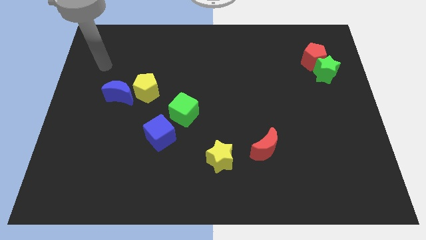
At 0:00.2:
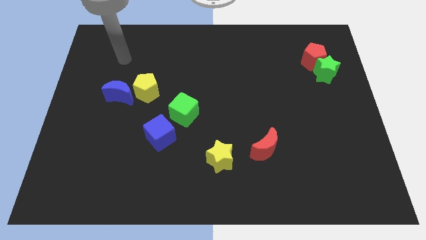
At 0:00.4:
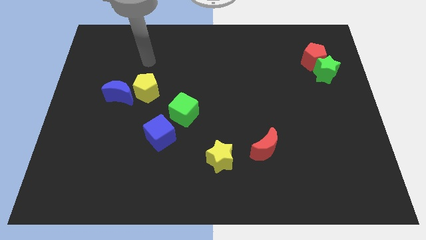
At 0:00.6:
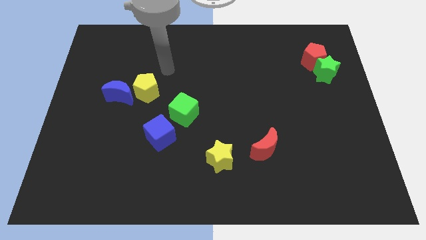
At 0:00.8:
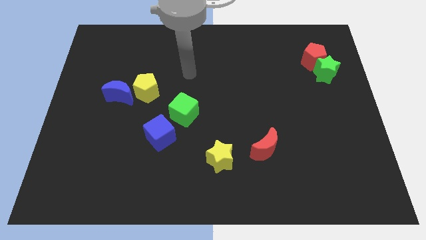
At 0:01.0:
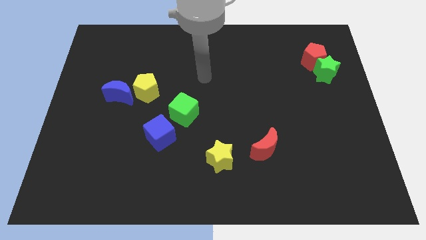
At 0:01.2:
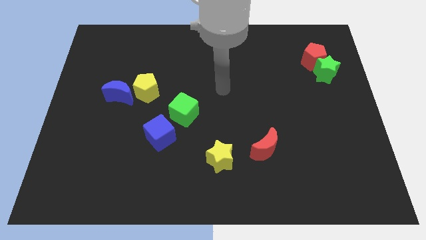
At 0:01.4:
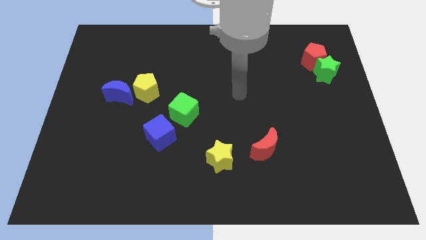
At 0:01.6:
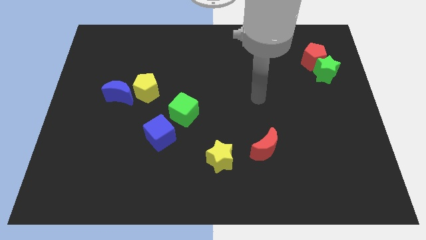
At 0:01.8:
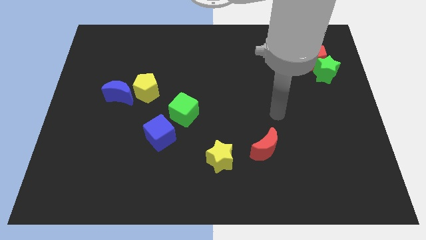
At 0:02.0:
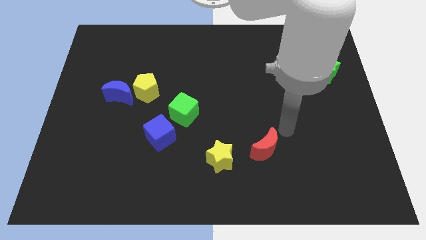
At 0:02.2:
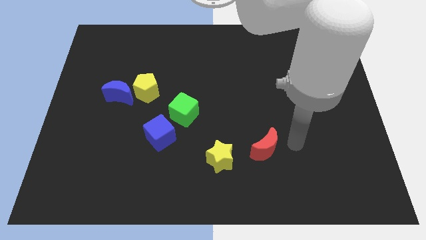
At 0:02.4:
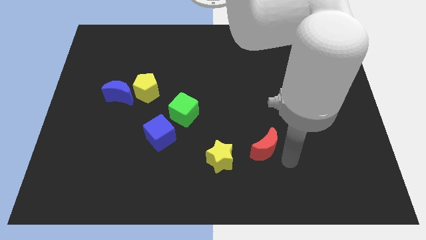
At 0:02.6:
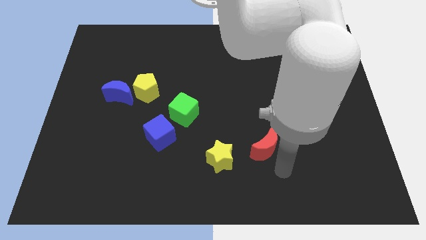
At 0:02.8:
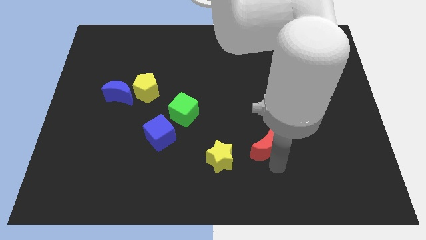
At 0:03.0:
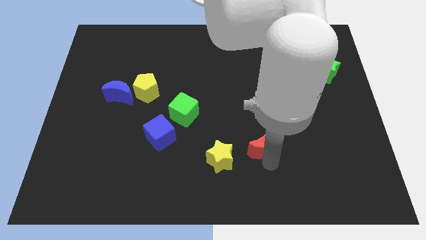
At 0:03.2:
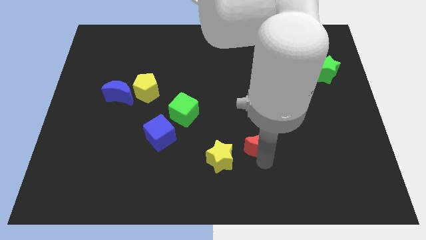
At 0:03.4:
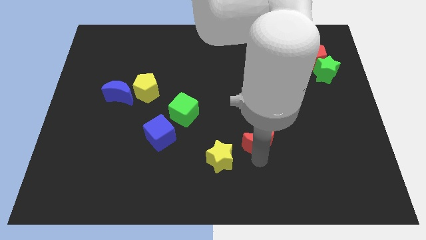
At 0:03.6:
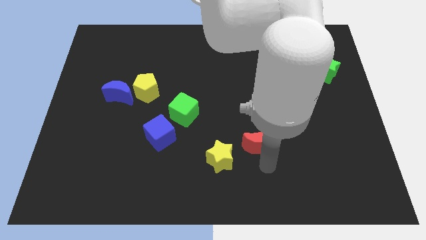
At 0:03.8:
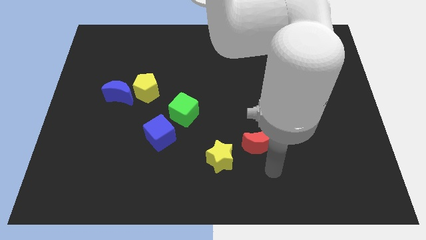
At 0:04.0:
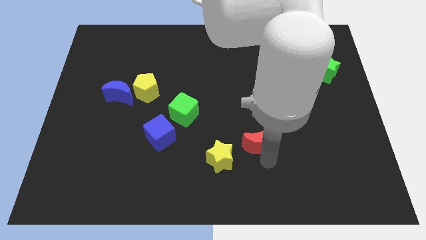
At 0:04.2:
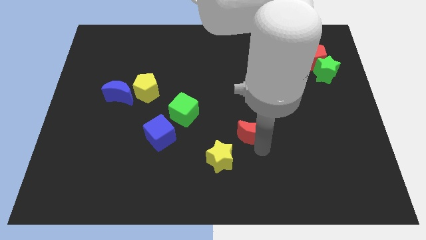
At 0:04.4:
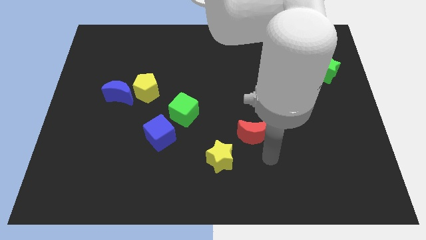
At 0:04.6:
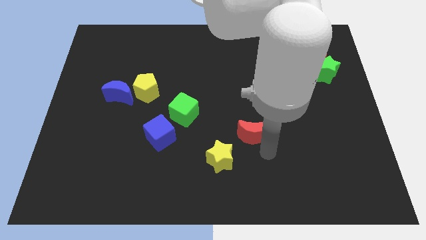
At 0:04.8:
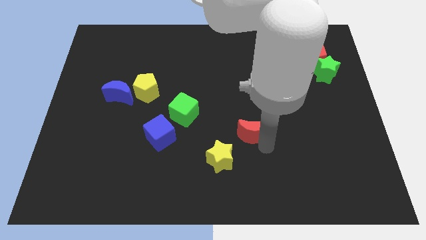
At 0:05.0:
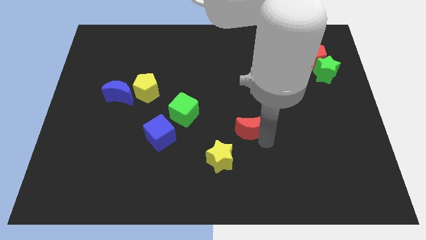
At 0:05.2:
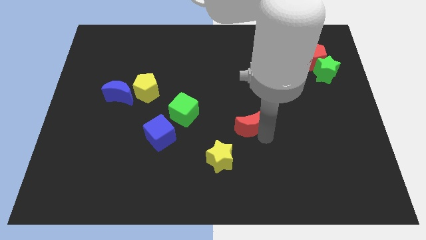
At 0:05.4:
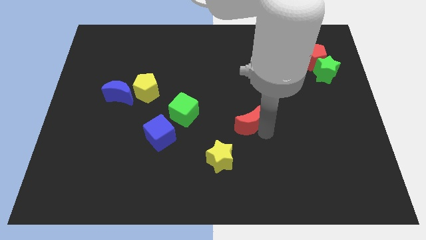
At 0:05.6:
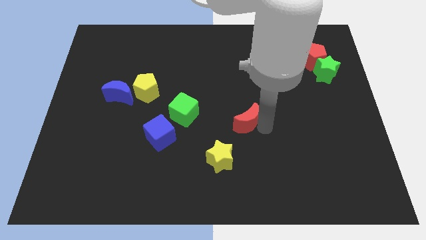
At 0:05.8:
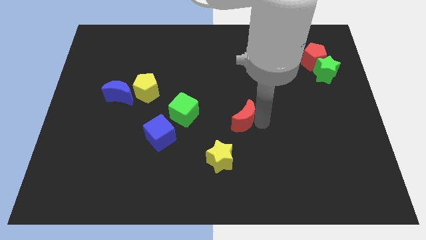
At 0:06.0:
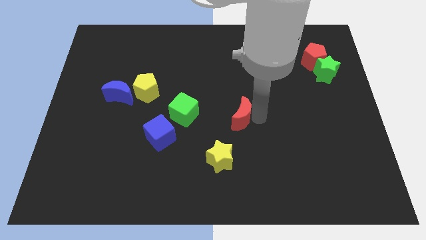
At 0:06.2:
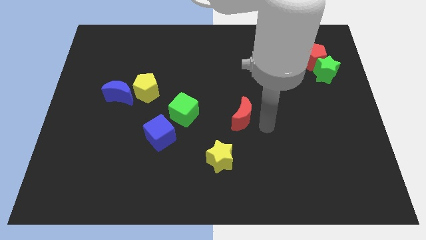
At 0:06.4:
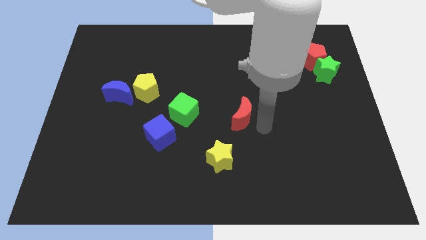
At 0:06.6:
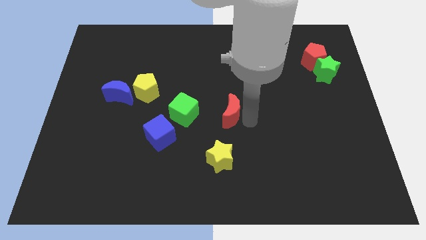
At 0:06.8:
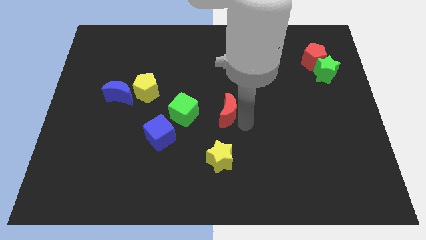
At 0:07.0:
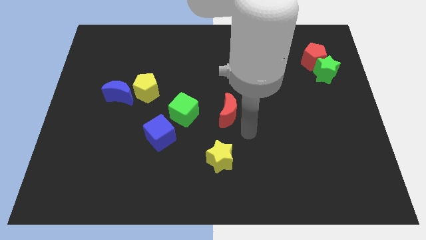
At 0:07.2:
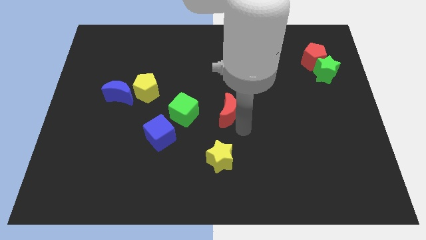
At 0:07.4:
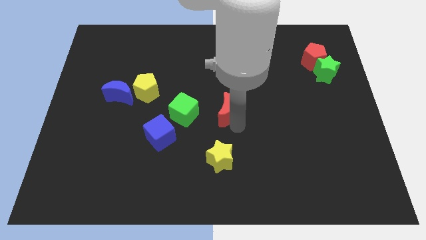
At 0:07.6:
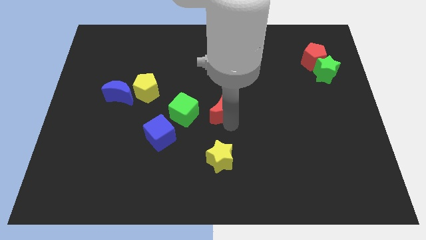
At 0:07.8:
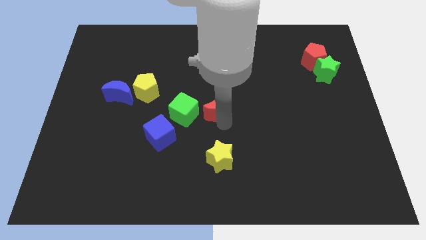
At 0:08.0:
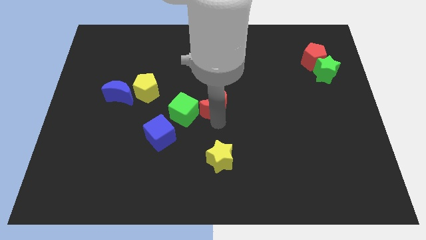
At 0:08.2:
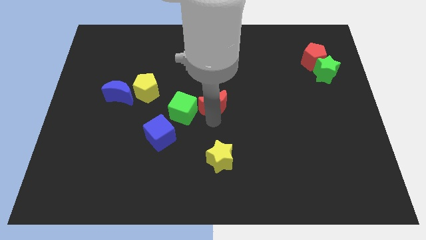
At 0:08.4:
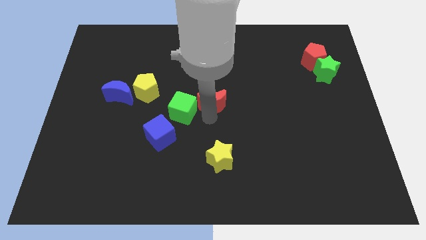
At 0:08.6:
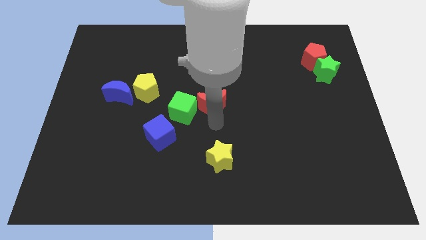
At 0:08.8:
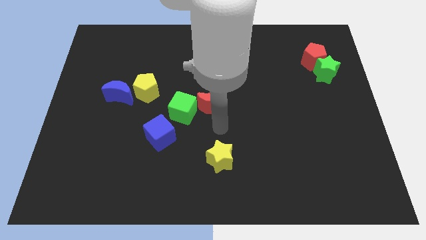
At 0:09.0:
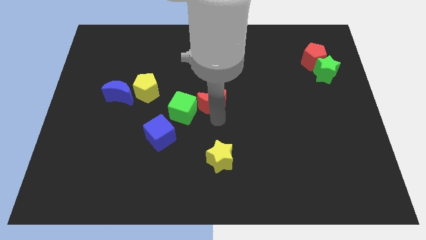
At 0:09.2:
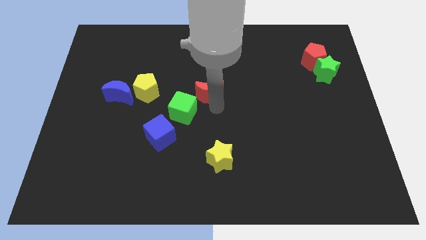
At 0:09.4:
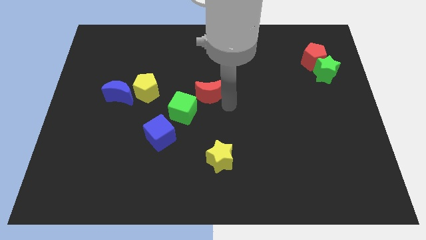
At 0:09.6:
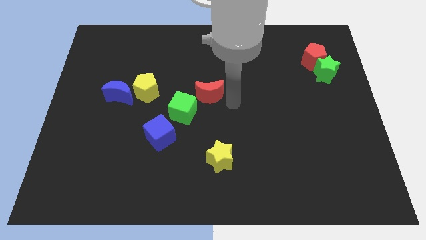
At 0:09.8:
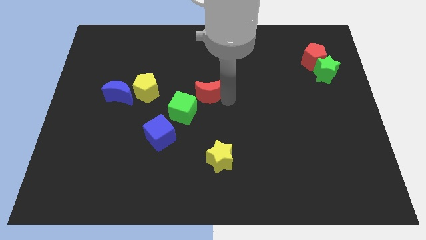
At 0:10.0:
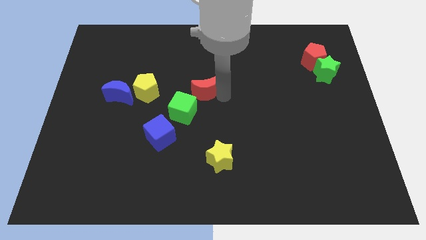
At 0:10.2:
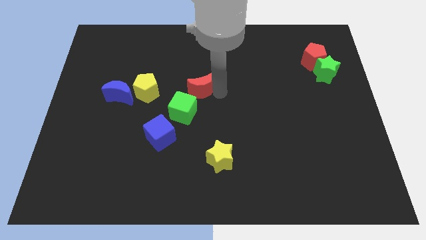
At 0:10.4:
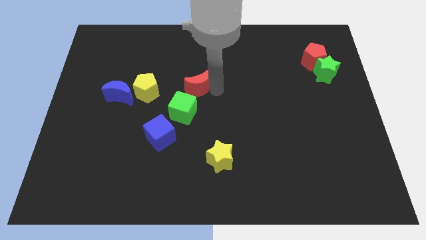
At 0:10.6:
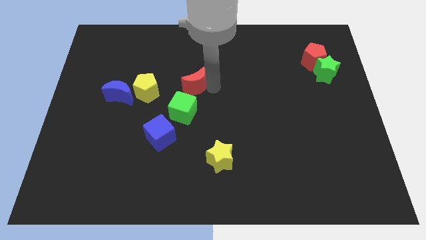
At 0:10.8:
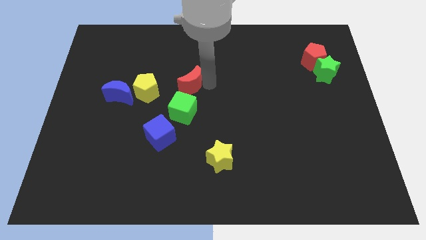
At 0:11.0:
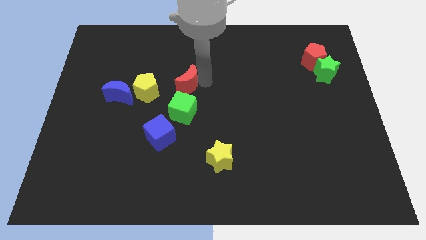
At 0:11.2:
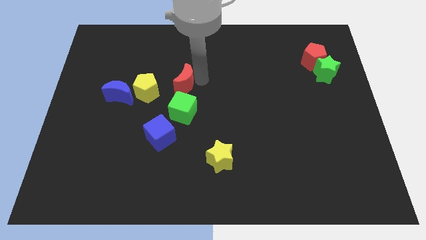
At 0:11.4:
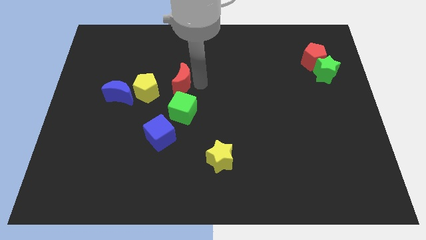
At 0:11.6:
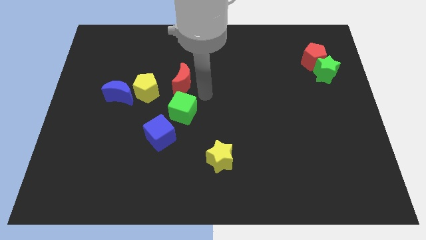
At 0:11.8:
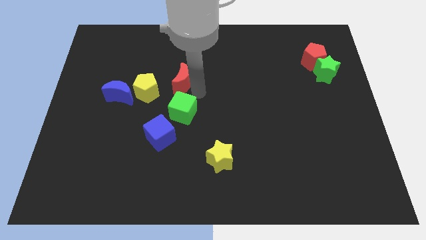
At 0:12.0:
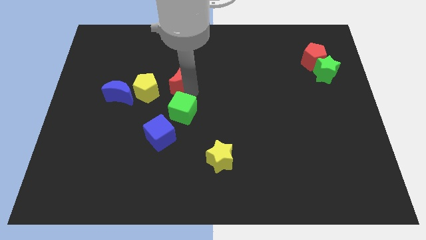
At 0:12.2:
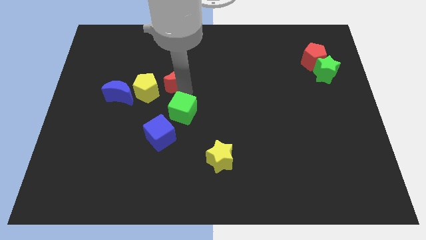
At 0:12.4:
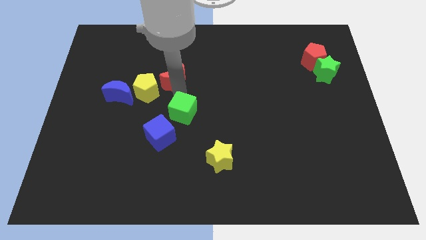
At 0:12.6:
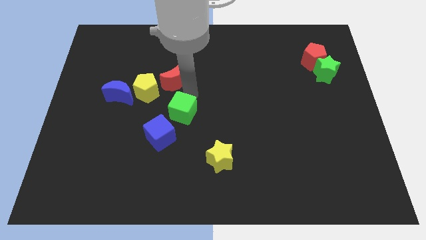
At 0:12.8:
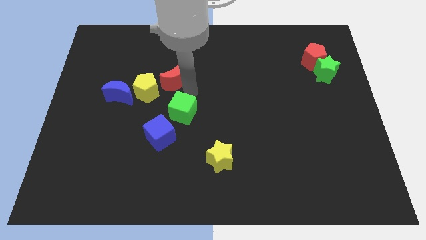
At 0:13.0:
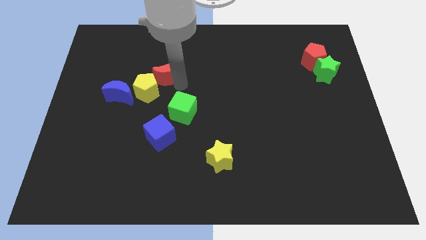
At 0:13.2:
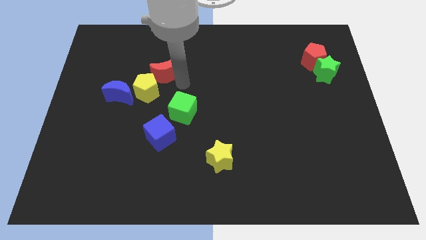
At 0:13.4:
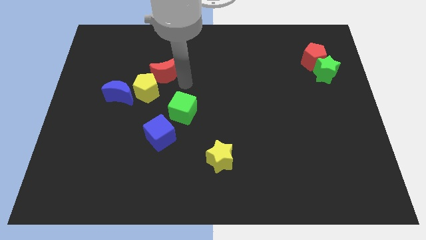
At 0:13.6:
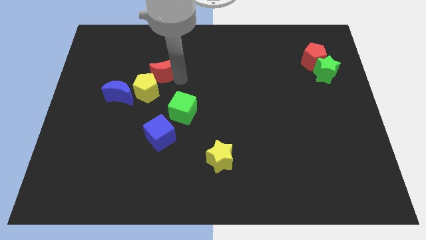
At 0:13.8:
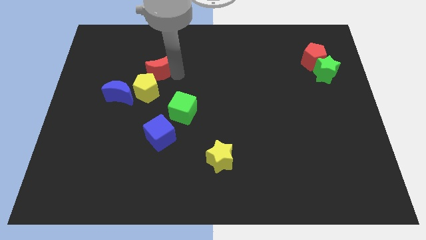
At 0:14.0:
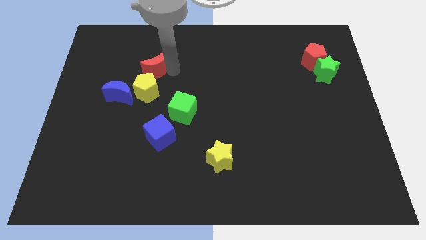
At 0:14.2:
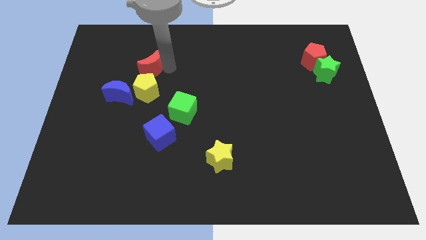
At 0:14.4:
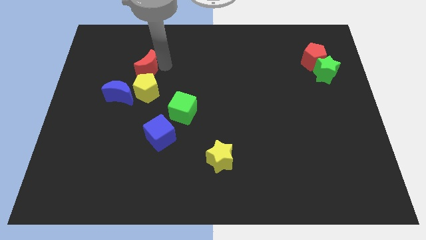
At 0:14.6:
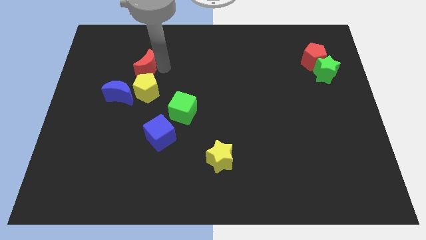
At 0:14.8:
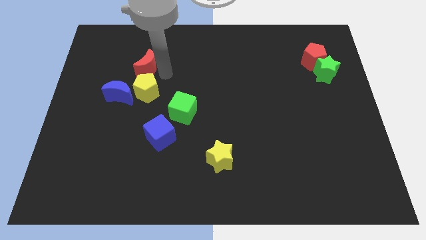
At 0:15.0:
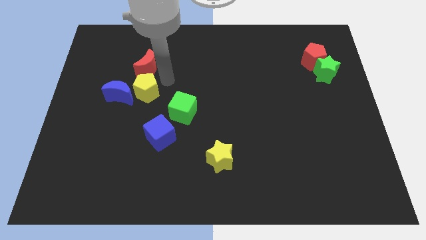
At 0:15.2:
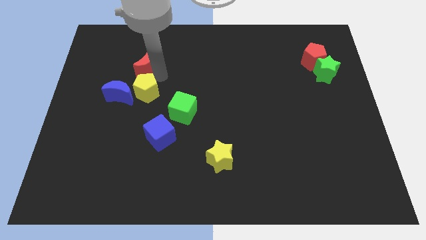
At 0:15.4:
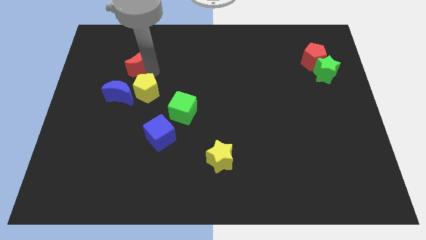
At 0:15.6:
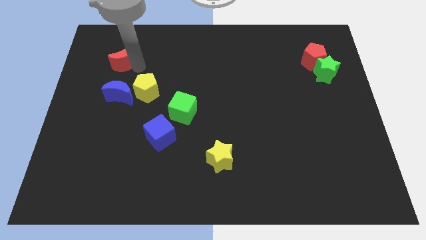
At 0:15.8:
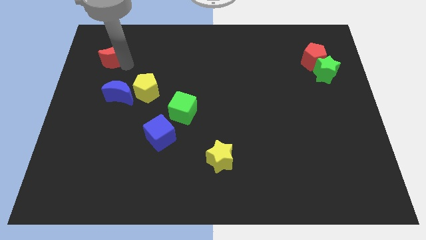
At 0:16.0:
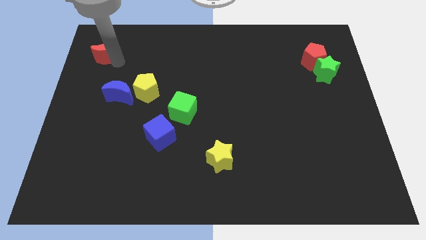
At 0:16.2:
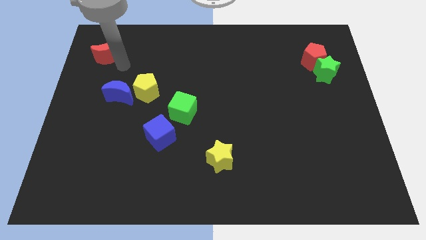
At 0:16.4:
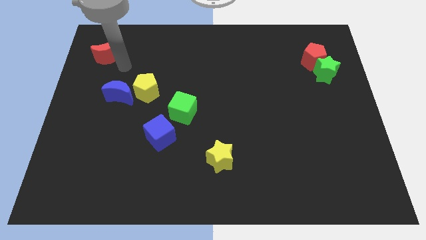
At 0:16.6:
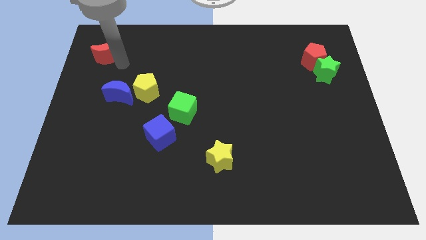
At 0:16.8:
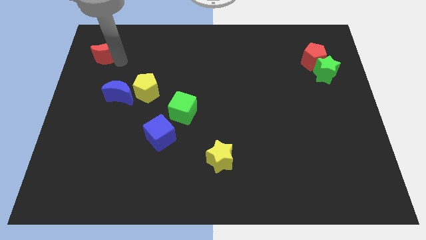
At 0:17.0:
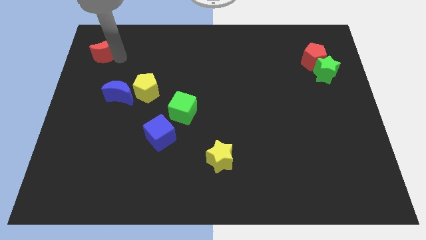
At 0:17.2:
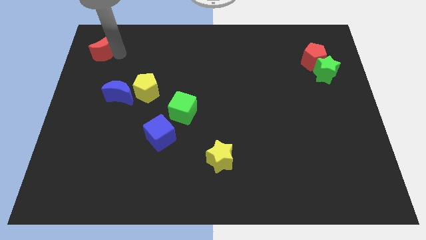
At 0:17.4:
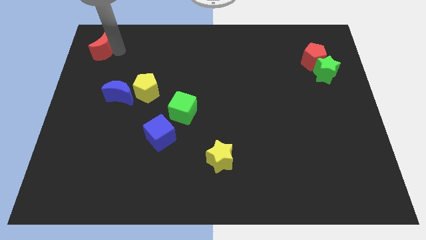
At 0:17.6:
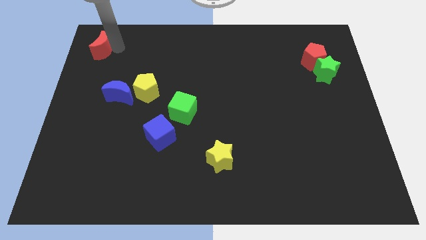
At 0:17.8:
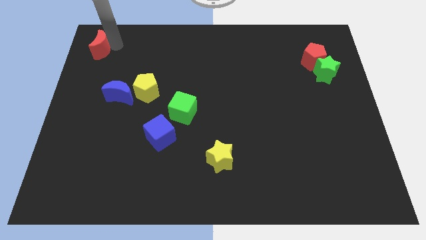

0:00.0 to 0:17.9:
slide the red moon to the top left of the board
